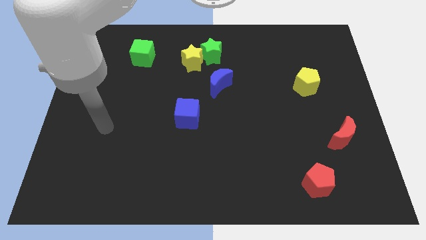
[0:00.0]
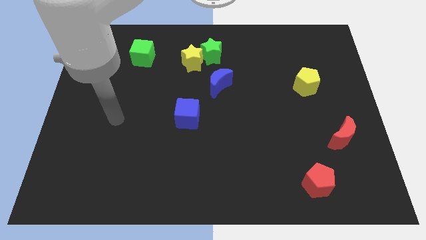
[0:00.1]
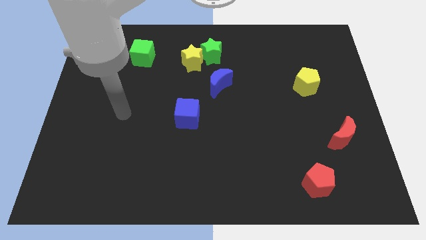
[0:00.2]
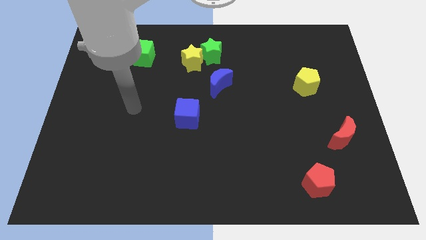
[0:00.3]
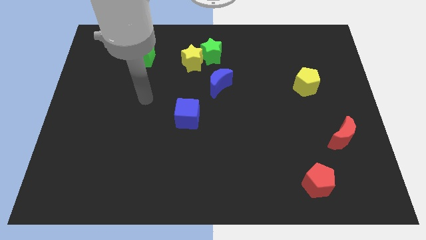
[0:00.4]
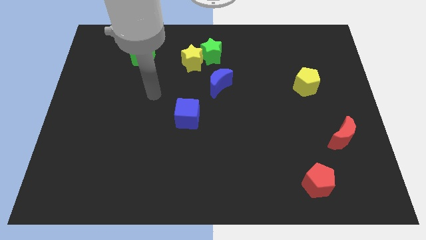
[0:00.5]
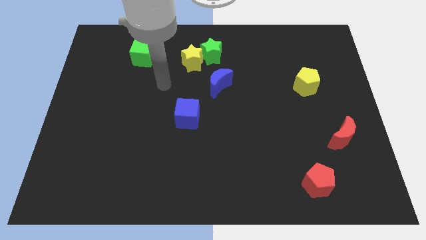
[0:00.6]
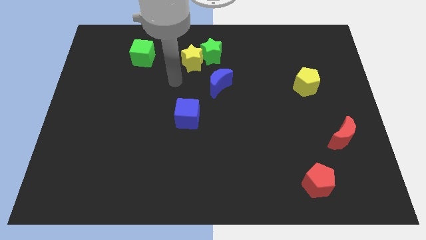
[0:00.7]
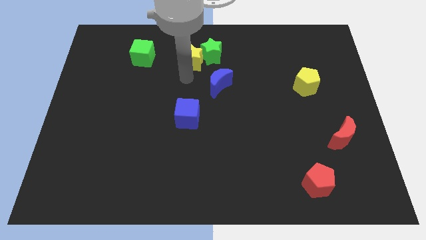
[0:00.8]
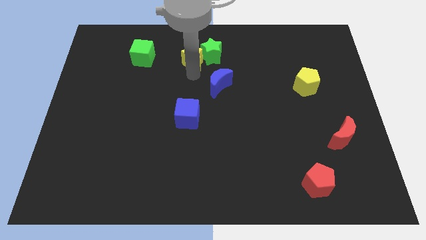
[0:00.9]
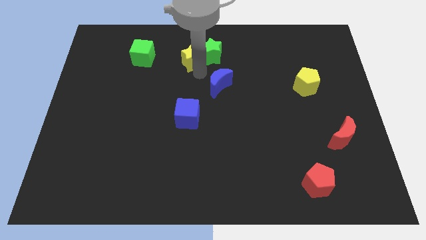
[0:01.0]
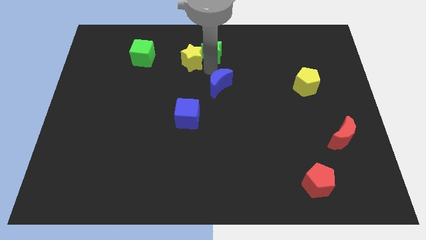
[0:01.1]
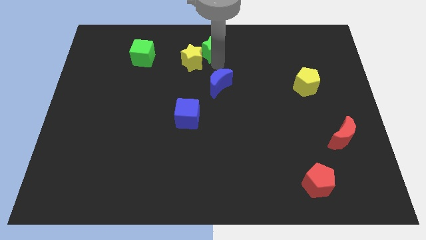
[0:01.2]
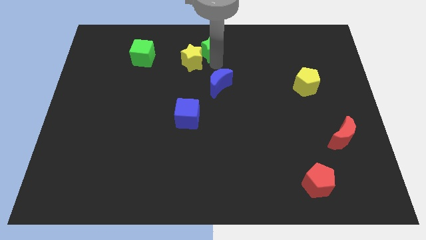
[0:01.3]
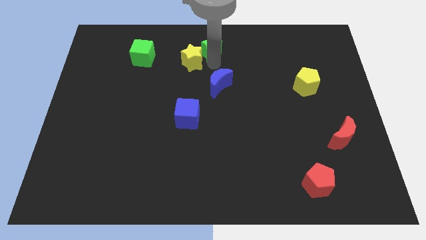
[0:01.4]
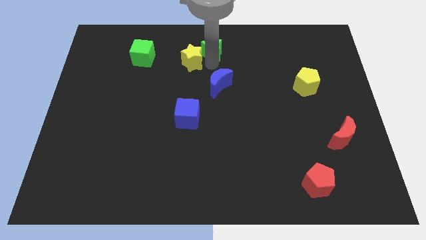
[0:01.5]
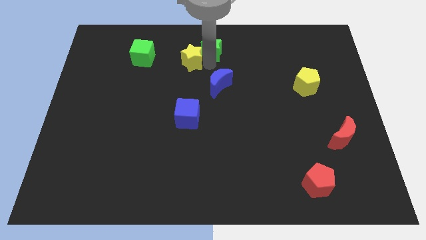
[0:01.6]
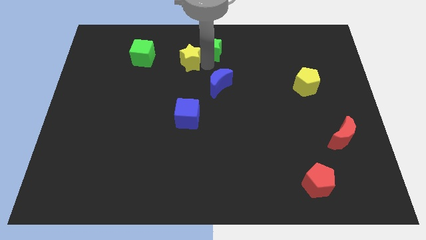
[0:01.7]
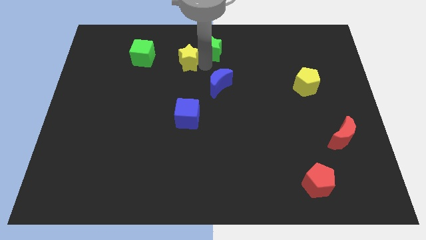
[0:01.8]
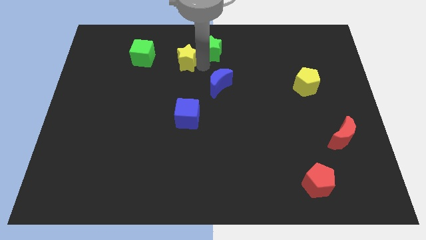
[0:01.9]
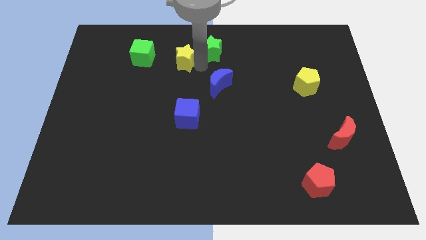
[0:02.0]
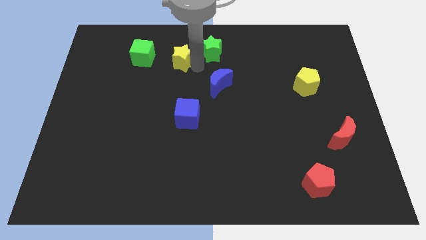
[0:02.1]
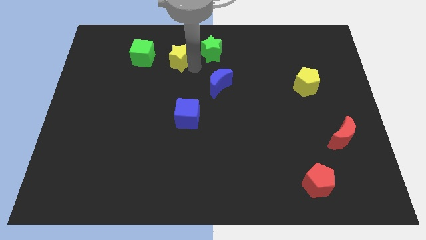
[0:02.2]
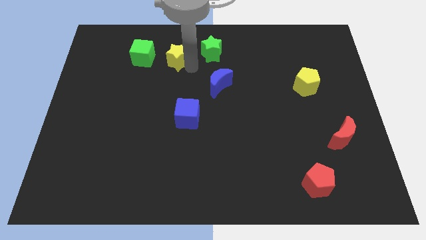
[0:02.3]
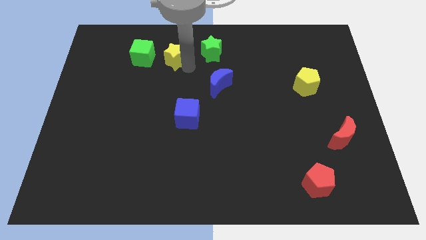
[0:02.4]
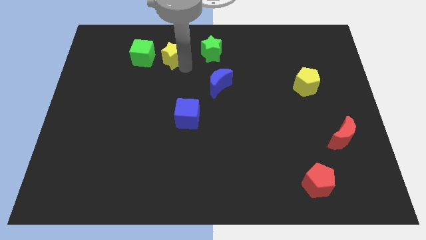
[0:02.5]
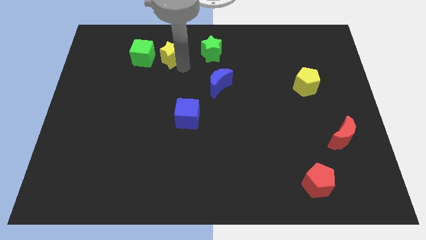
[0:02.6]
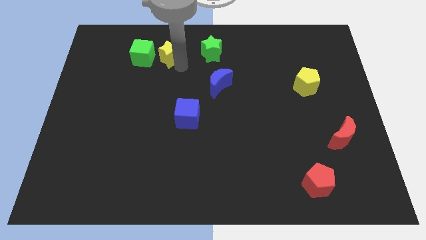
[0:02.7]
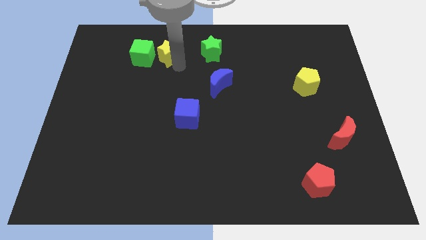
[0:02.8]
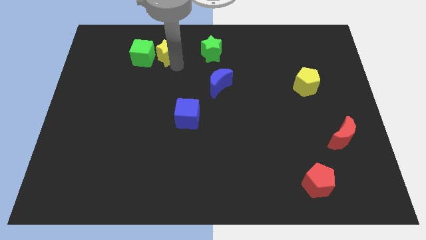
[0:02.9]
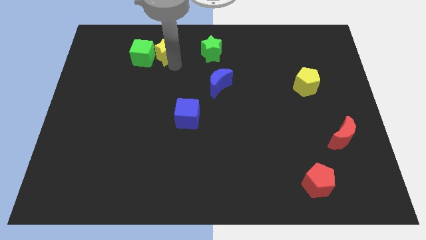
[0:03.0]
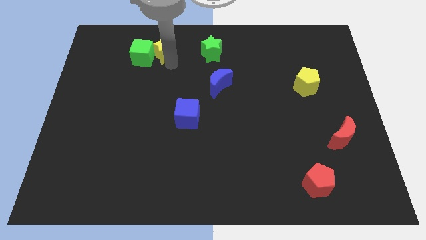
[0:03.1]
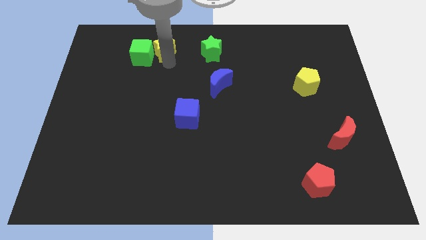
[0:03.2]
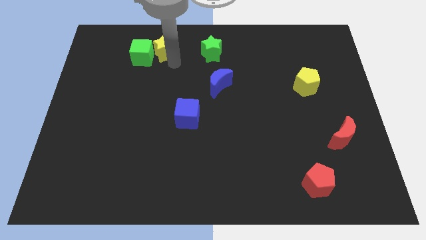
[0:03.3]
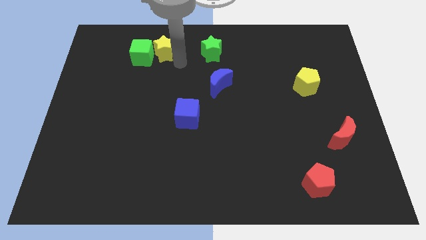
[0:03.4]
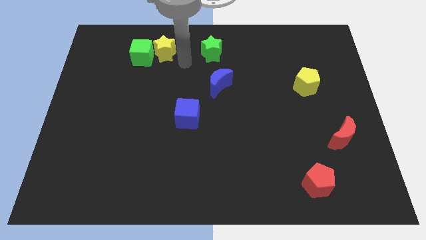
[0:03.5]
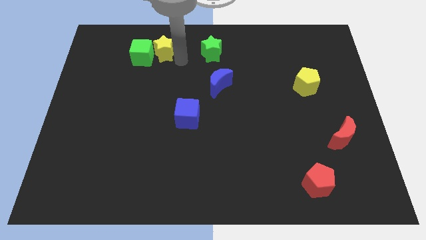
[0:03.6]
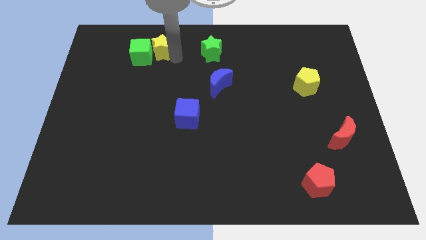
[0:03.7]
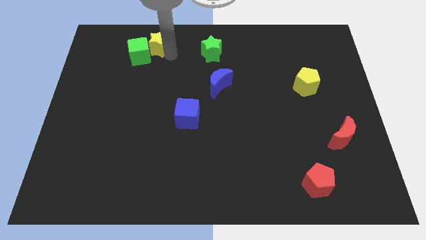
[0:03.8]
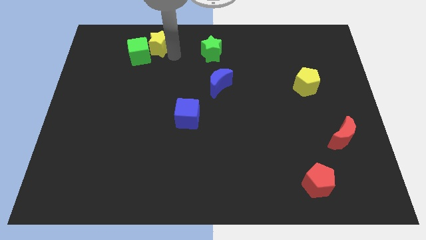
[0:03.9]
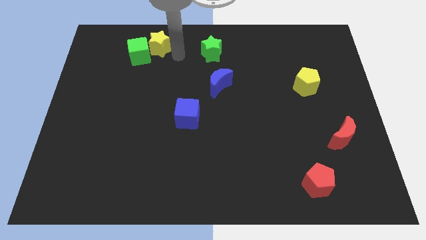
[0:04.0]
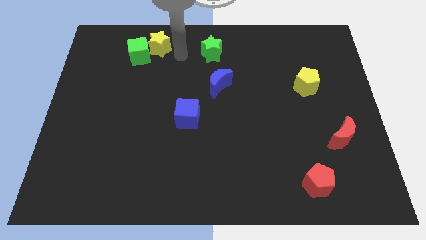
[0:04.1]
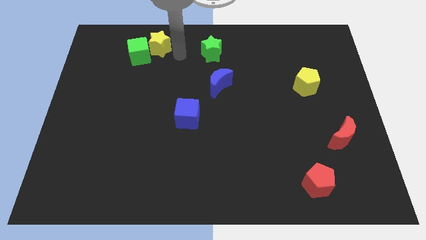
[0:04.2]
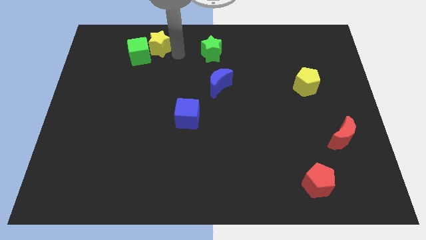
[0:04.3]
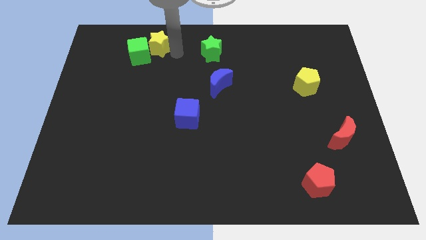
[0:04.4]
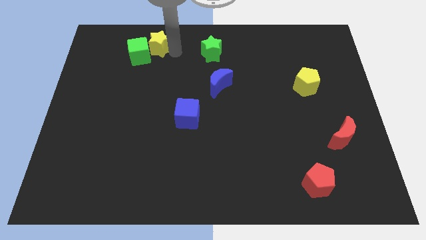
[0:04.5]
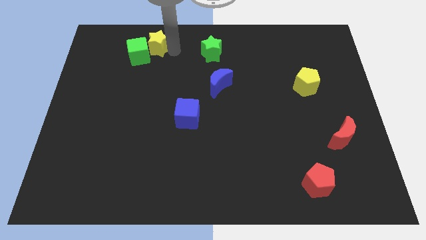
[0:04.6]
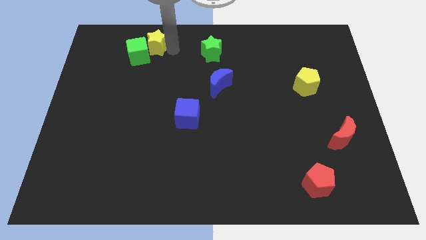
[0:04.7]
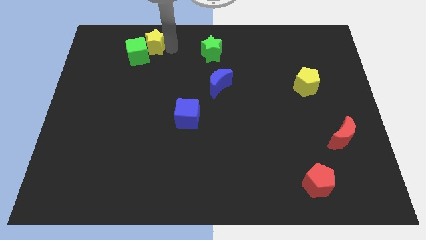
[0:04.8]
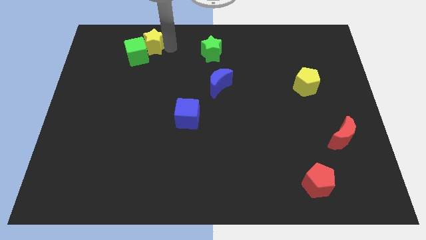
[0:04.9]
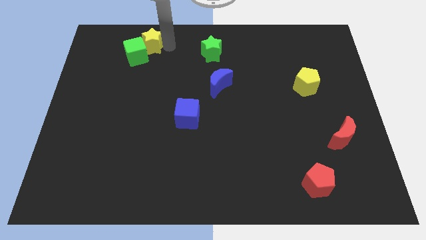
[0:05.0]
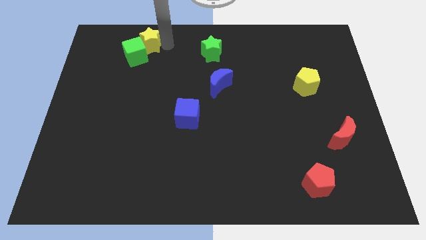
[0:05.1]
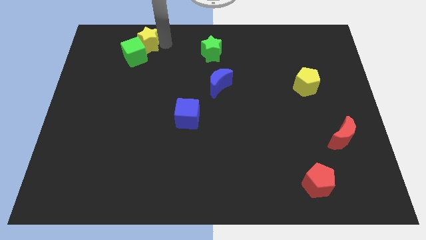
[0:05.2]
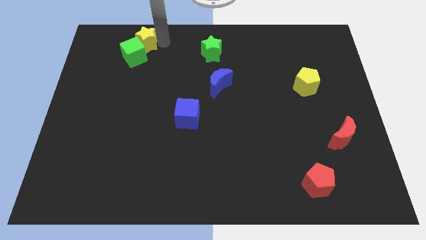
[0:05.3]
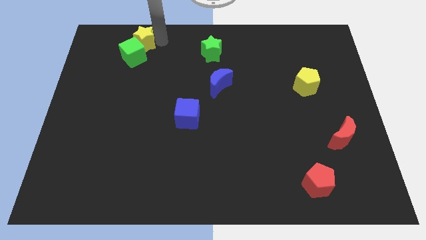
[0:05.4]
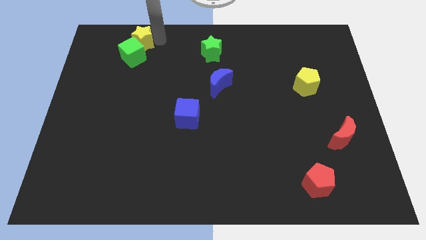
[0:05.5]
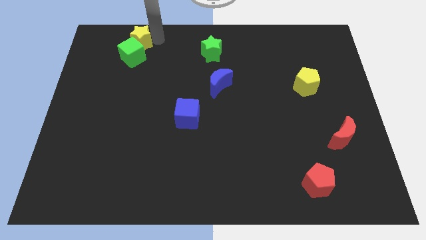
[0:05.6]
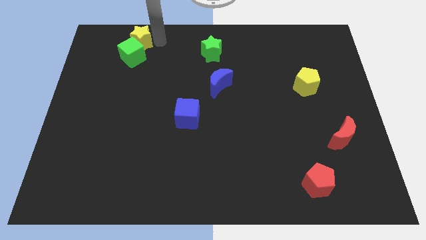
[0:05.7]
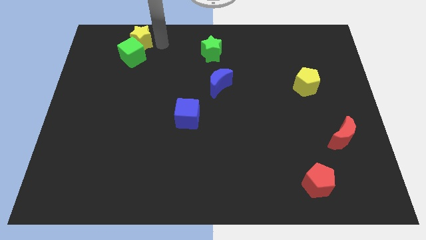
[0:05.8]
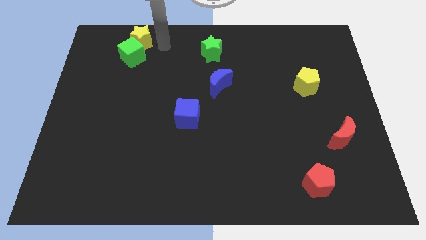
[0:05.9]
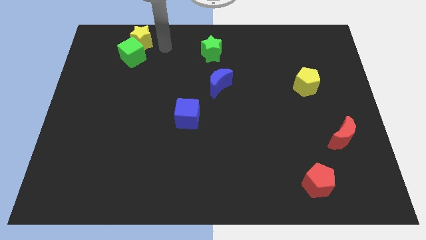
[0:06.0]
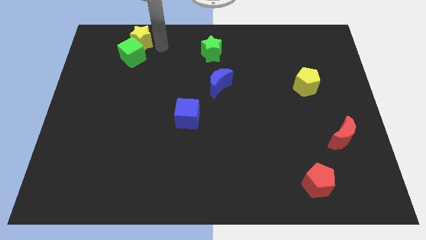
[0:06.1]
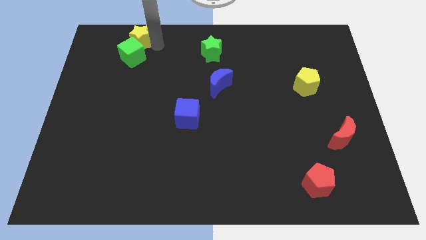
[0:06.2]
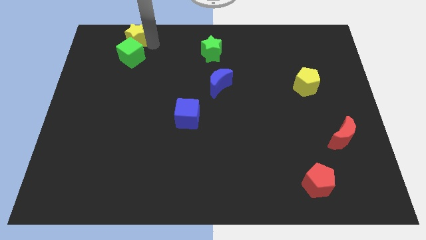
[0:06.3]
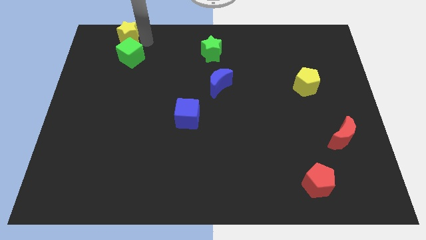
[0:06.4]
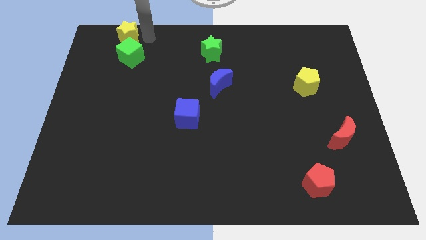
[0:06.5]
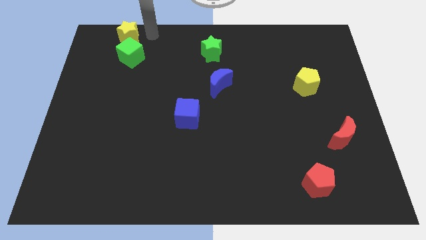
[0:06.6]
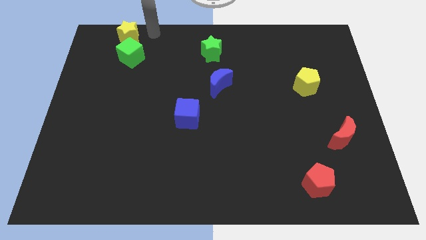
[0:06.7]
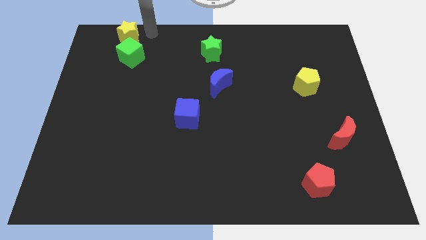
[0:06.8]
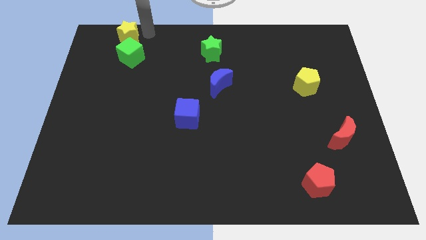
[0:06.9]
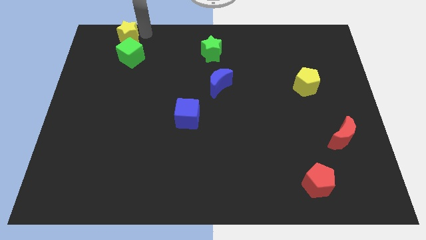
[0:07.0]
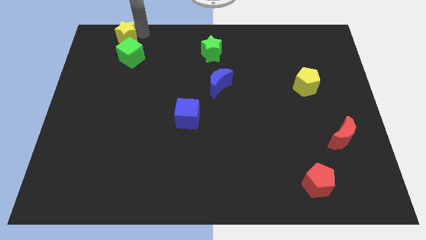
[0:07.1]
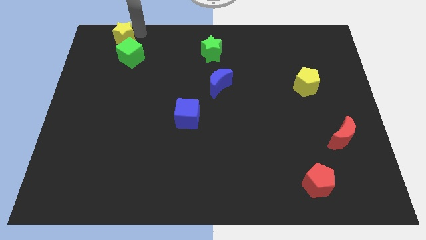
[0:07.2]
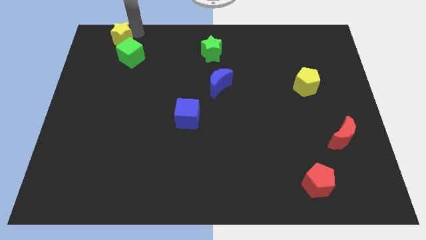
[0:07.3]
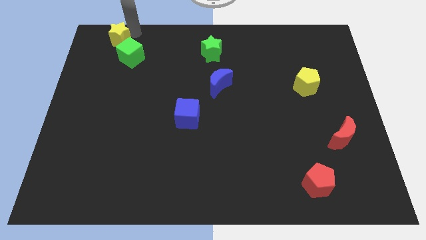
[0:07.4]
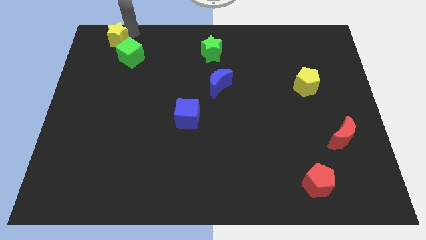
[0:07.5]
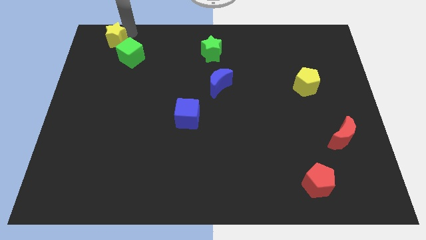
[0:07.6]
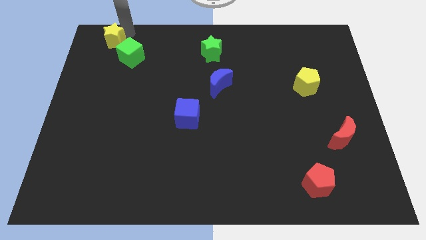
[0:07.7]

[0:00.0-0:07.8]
put the yellow star to the top left corner
